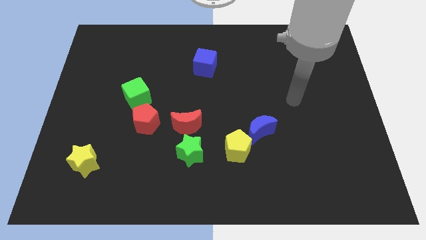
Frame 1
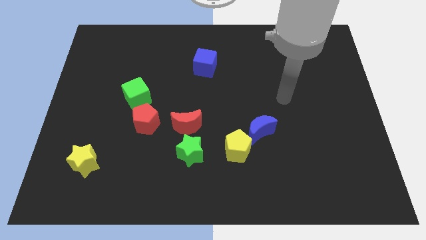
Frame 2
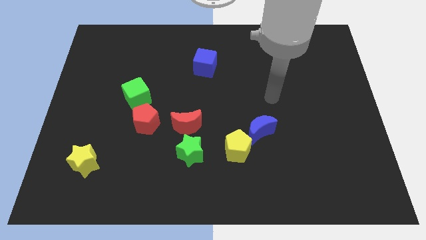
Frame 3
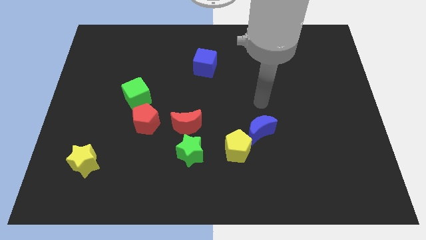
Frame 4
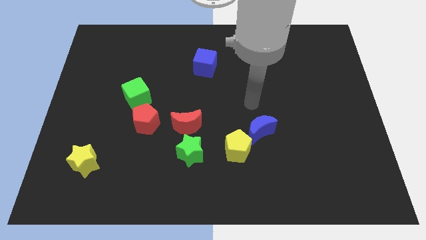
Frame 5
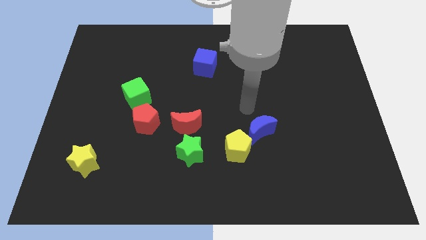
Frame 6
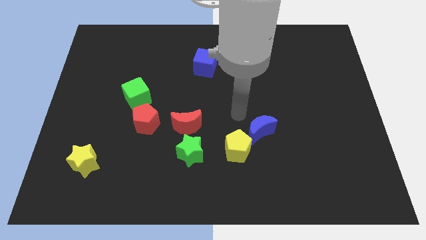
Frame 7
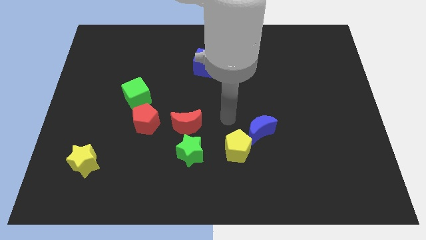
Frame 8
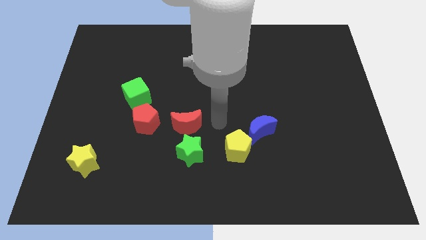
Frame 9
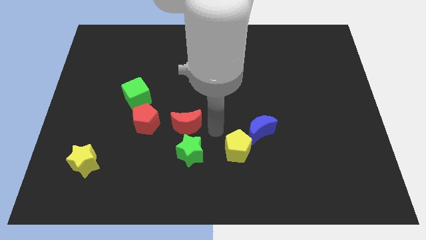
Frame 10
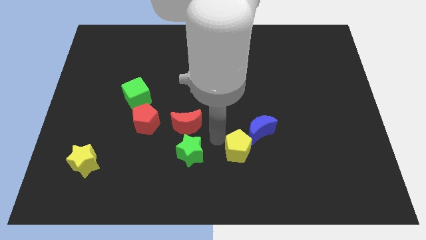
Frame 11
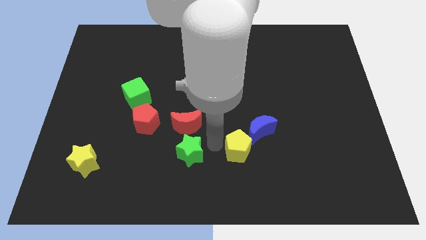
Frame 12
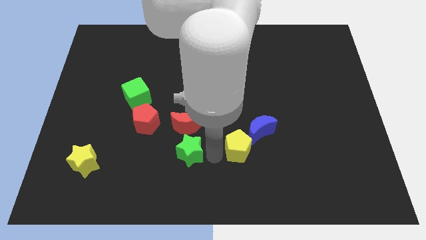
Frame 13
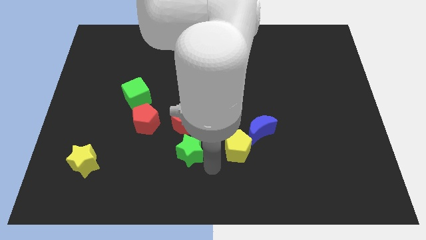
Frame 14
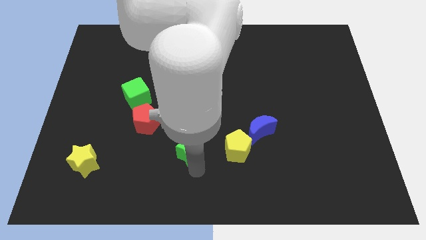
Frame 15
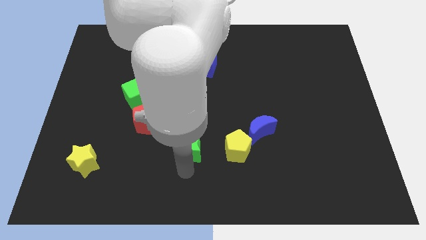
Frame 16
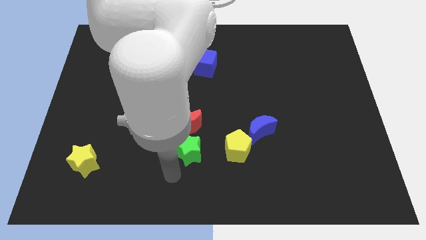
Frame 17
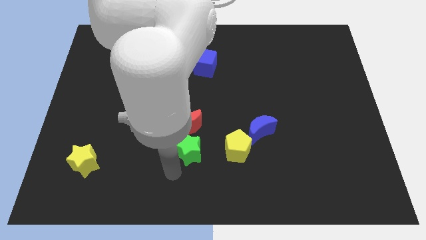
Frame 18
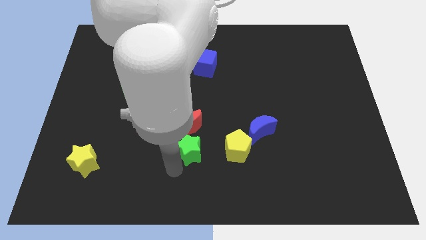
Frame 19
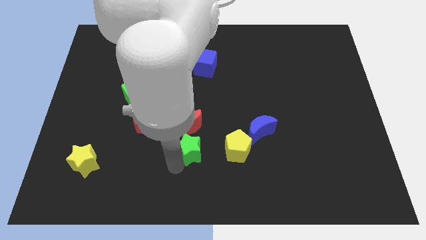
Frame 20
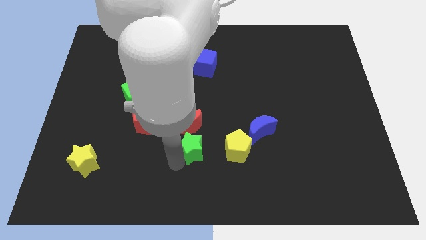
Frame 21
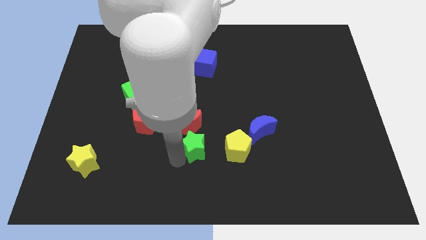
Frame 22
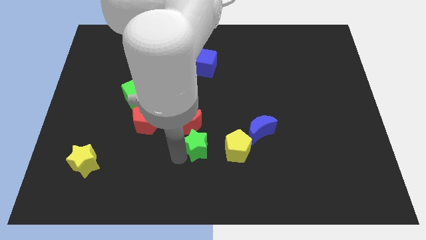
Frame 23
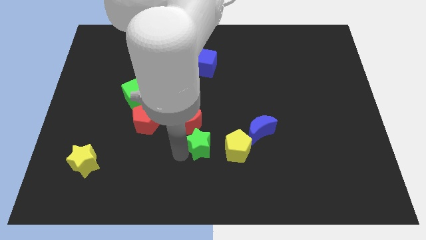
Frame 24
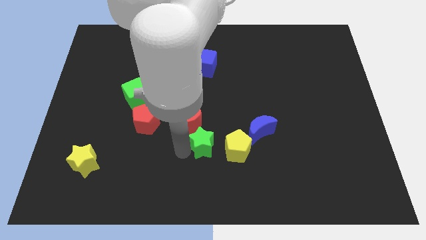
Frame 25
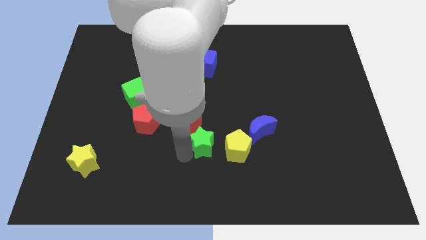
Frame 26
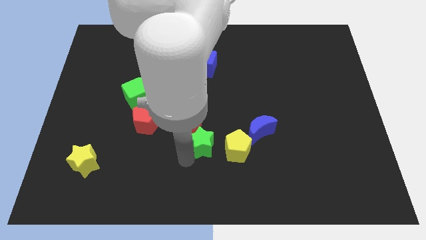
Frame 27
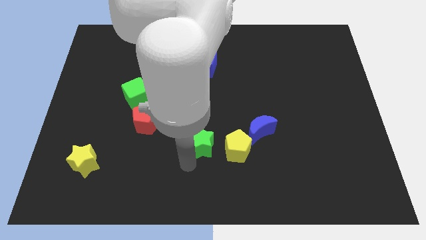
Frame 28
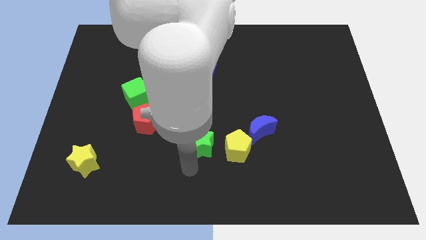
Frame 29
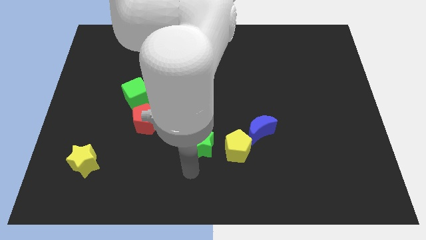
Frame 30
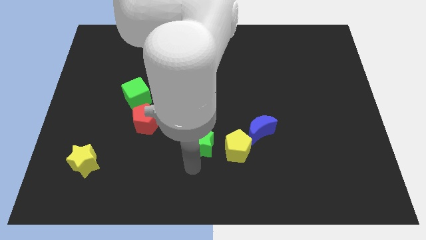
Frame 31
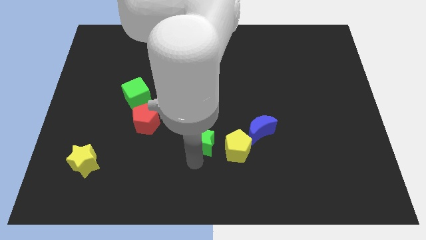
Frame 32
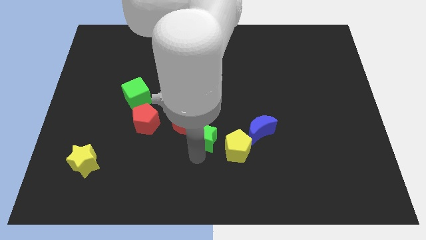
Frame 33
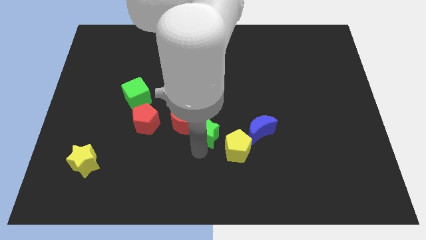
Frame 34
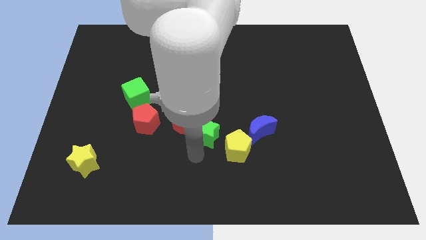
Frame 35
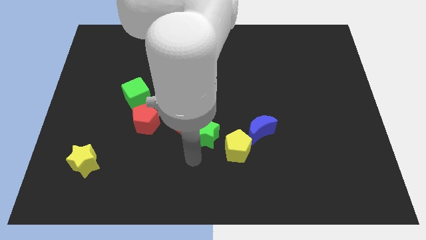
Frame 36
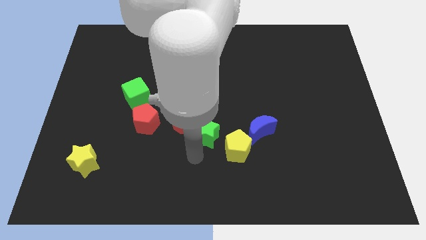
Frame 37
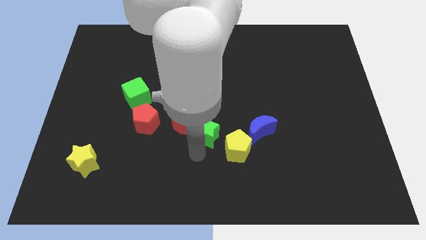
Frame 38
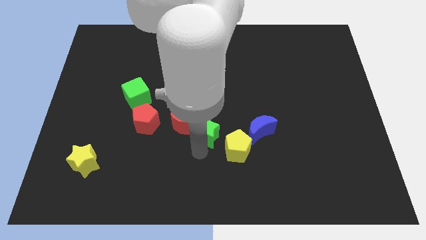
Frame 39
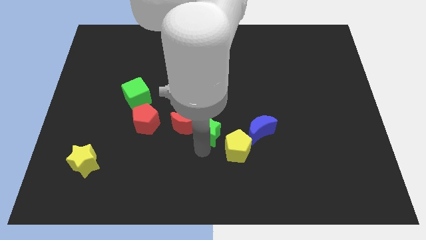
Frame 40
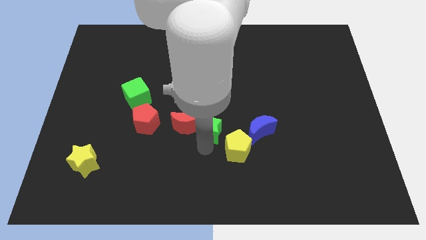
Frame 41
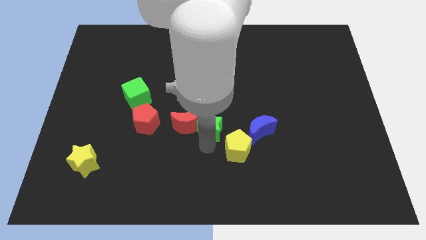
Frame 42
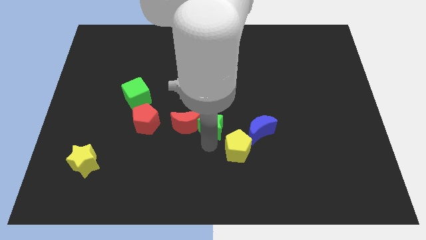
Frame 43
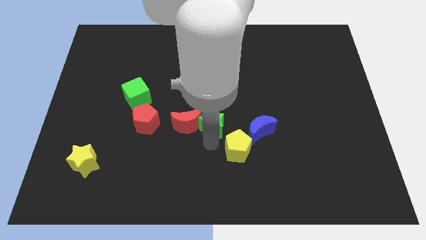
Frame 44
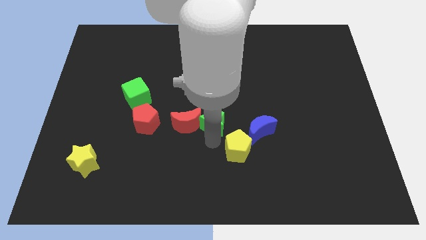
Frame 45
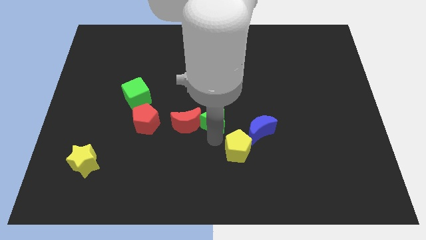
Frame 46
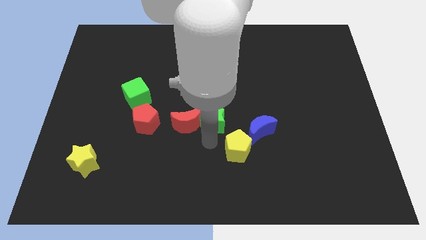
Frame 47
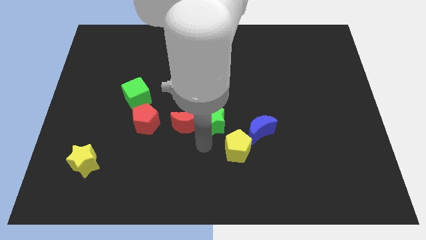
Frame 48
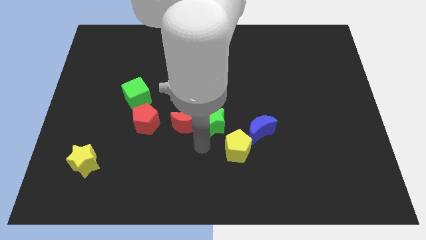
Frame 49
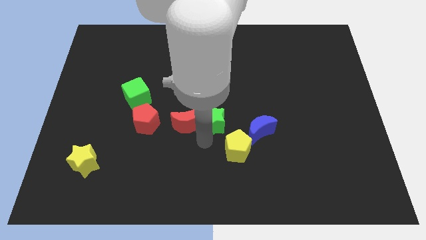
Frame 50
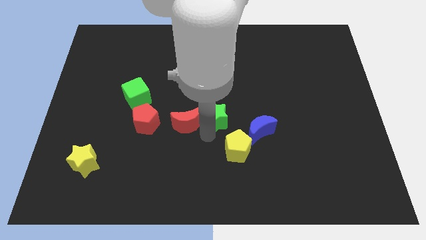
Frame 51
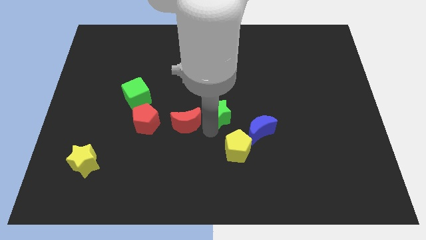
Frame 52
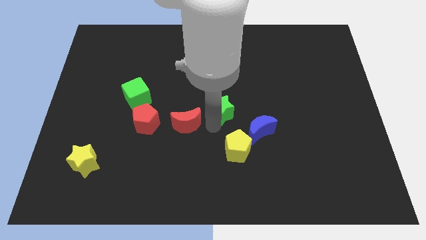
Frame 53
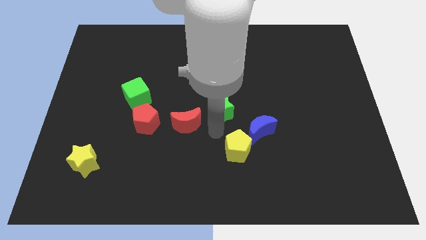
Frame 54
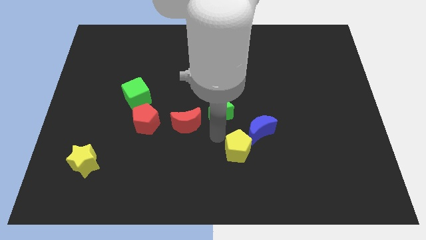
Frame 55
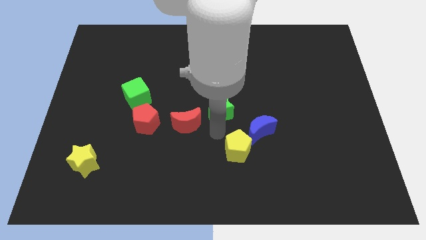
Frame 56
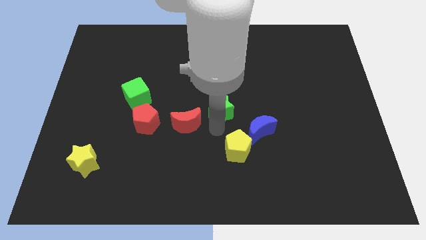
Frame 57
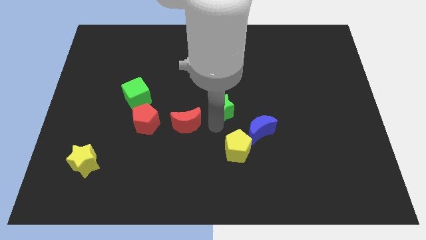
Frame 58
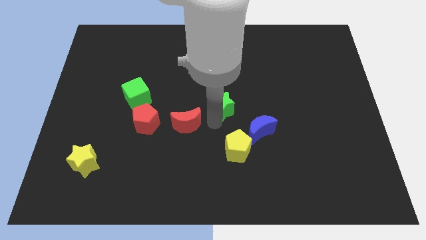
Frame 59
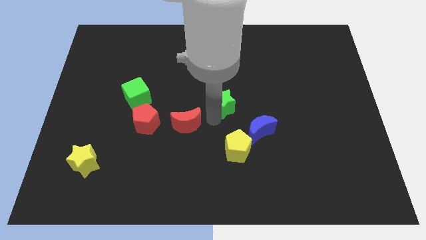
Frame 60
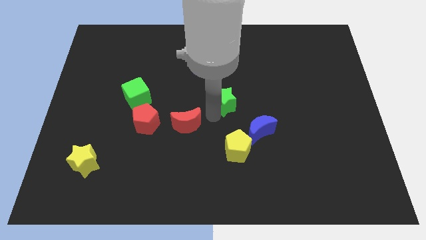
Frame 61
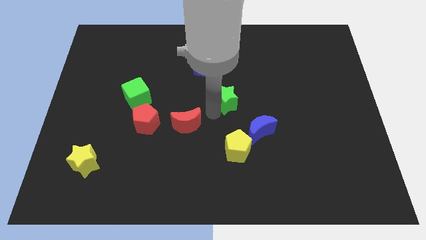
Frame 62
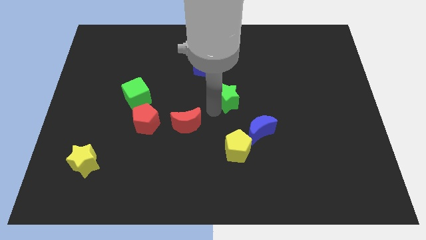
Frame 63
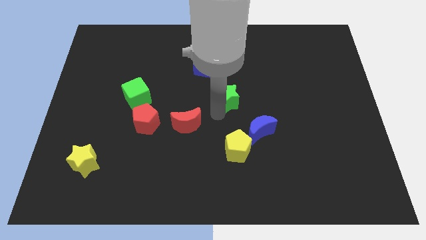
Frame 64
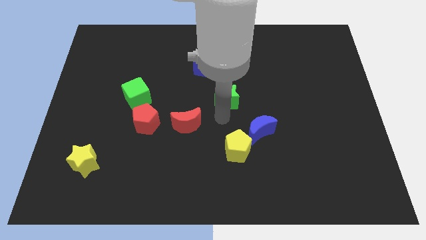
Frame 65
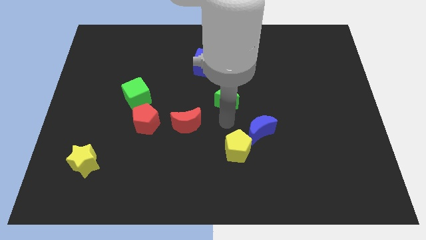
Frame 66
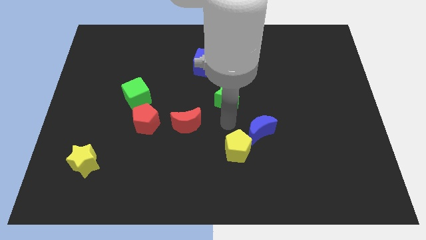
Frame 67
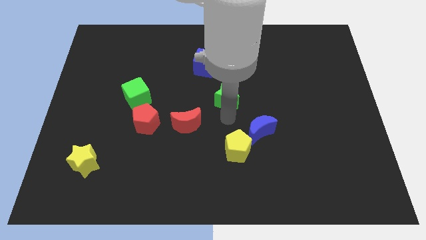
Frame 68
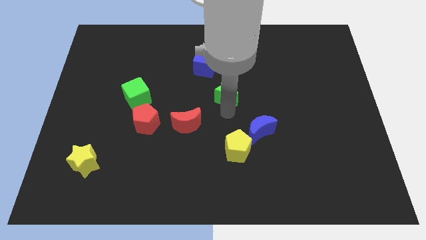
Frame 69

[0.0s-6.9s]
move the green star to the bottom right of the blue cube
